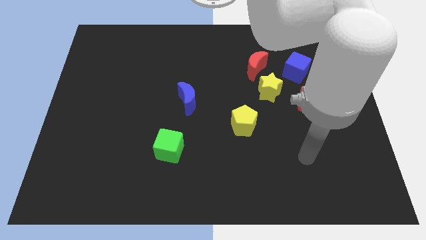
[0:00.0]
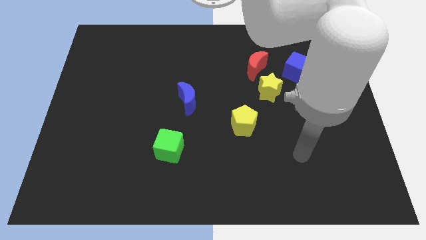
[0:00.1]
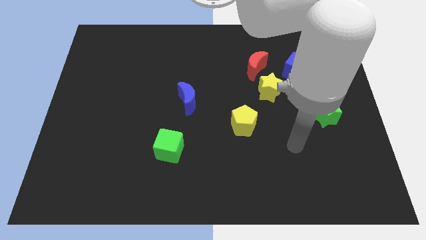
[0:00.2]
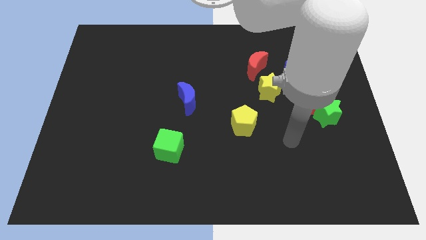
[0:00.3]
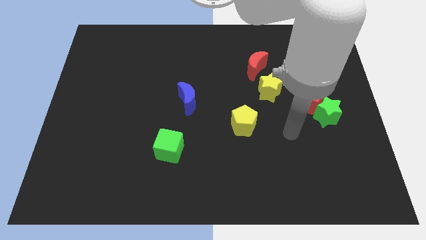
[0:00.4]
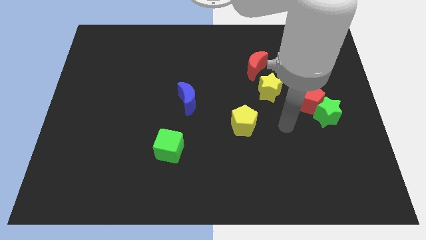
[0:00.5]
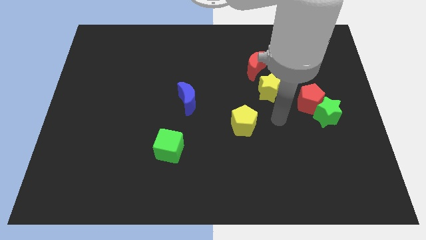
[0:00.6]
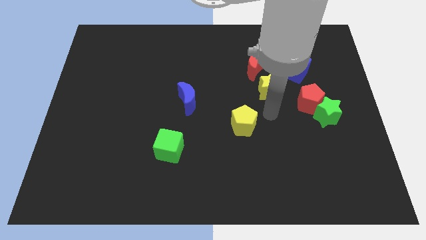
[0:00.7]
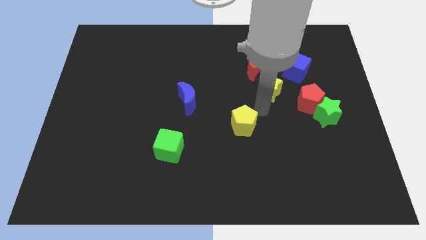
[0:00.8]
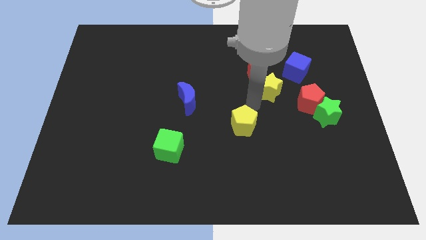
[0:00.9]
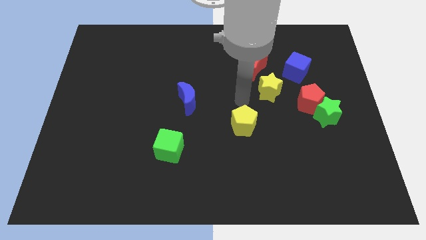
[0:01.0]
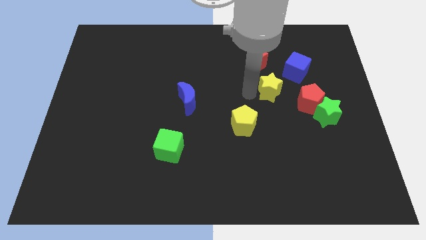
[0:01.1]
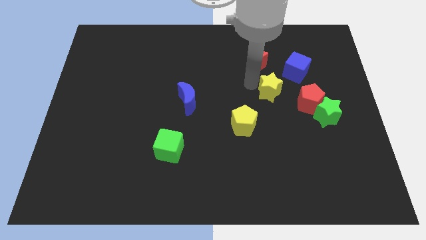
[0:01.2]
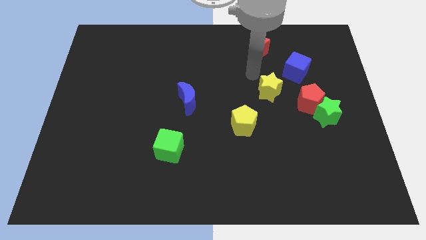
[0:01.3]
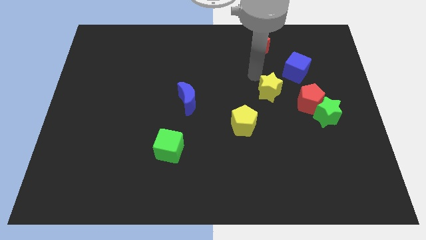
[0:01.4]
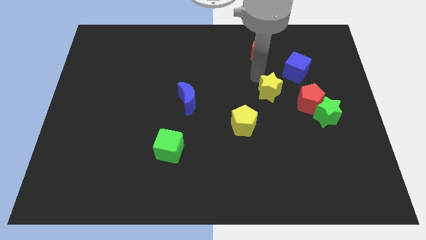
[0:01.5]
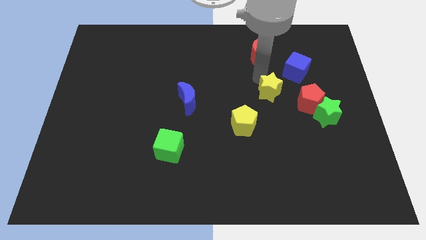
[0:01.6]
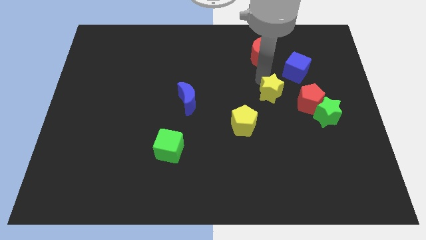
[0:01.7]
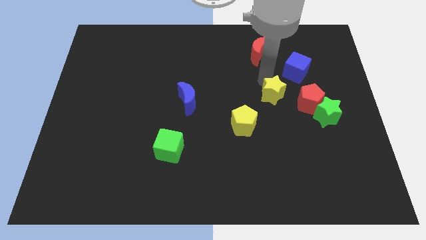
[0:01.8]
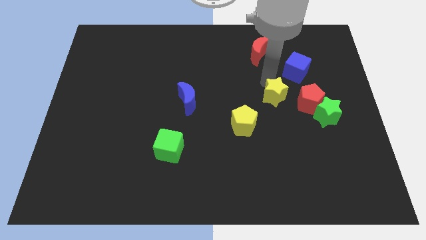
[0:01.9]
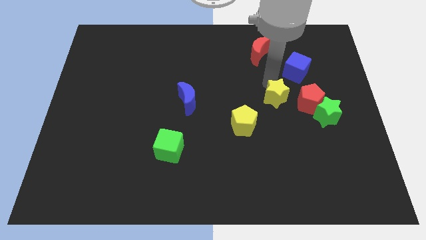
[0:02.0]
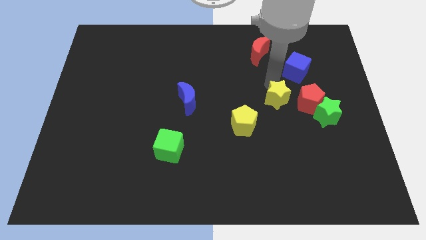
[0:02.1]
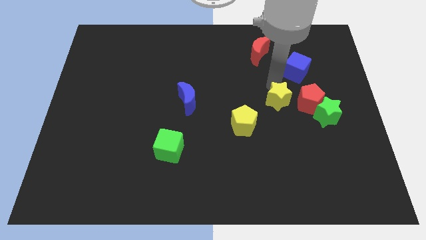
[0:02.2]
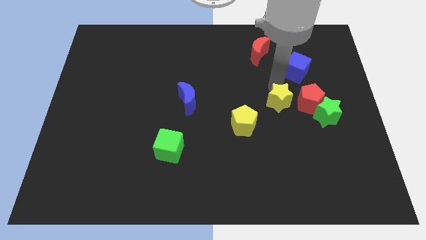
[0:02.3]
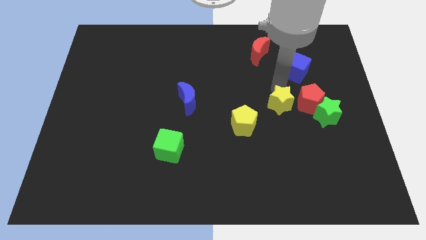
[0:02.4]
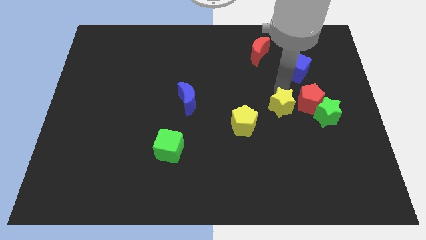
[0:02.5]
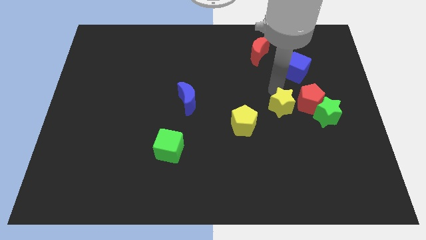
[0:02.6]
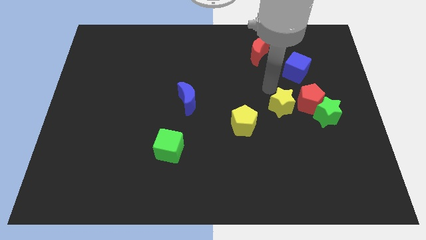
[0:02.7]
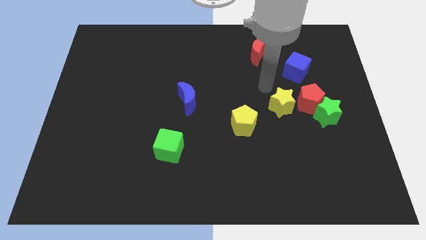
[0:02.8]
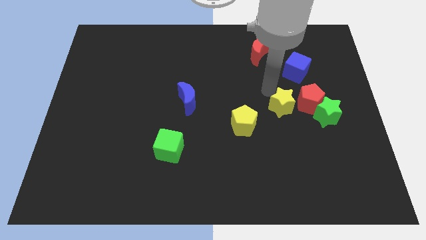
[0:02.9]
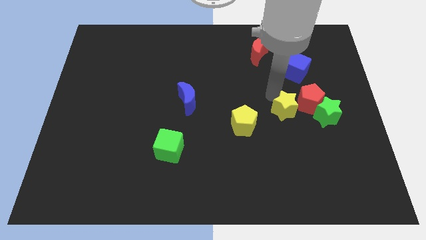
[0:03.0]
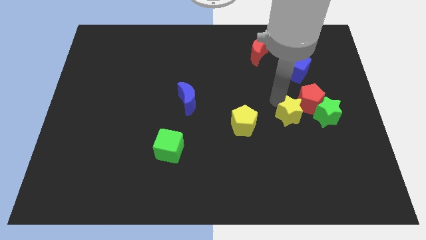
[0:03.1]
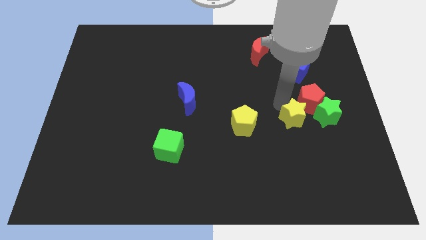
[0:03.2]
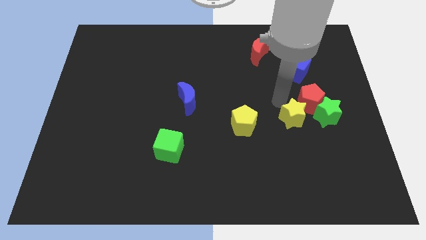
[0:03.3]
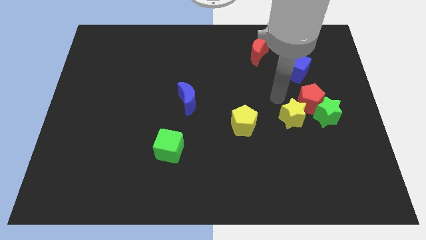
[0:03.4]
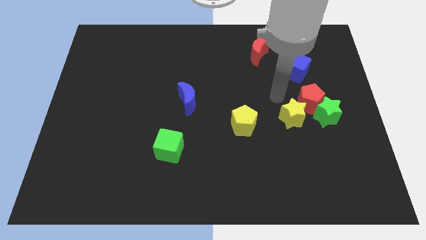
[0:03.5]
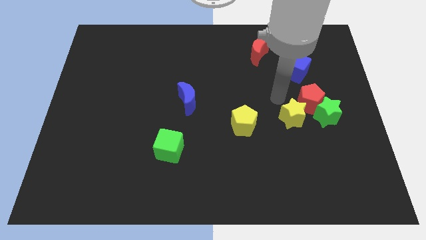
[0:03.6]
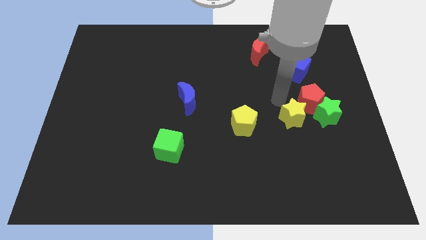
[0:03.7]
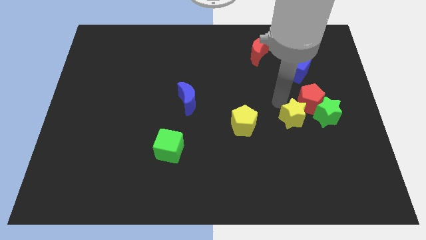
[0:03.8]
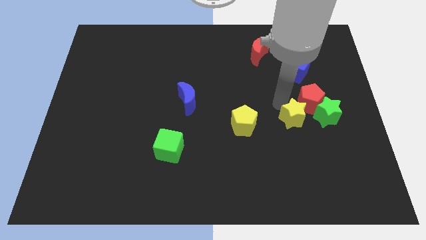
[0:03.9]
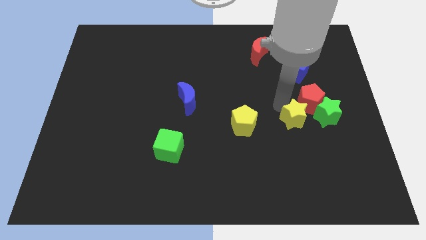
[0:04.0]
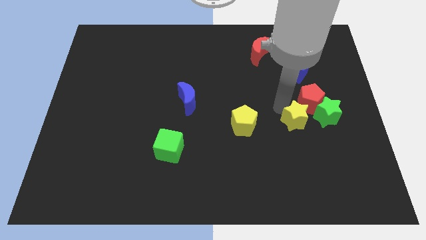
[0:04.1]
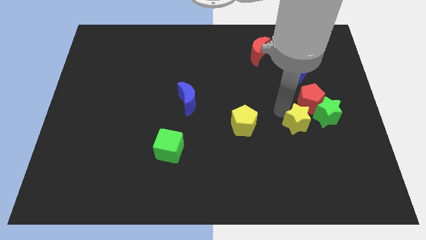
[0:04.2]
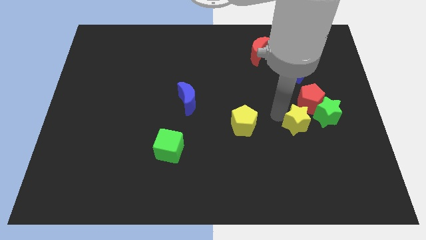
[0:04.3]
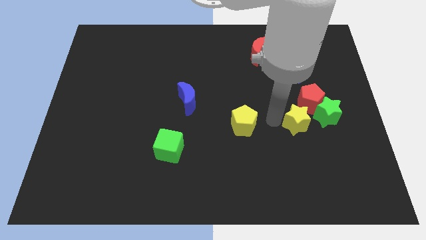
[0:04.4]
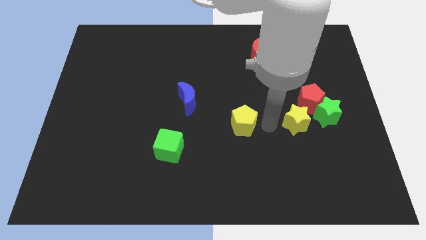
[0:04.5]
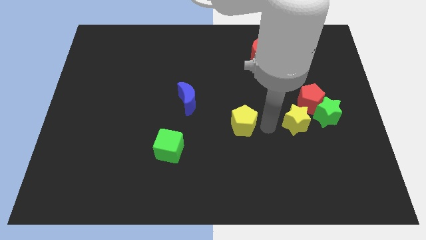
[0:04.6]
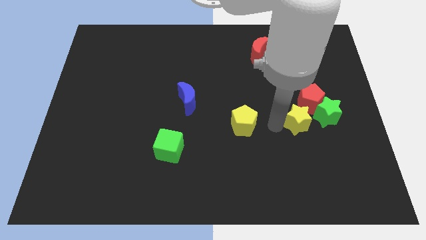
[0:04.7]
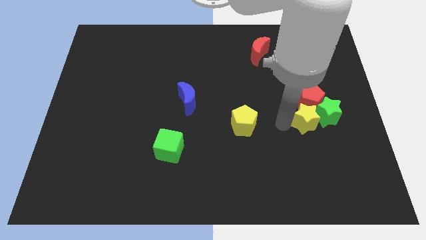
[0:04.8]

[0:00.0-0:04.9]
move the yellow star close to the green star

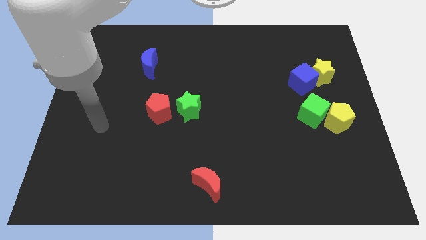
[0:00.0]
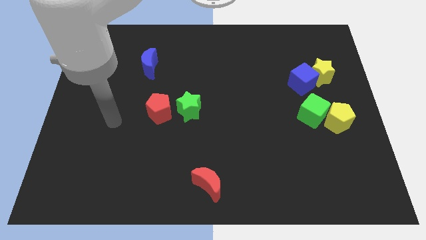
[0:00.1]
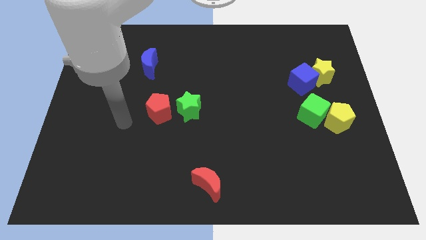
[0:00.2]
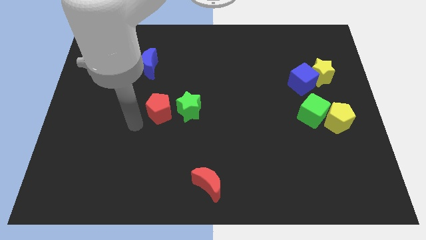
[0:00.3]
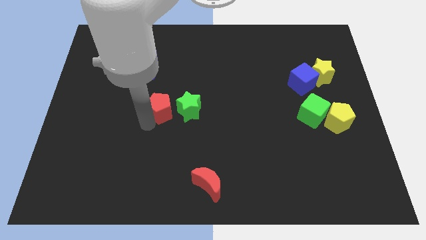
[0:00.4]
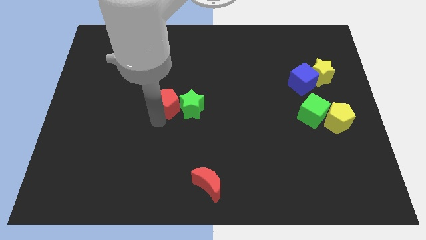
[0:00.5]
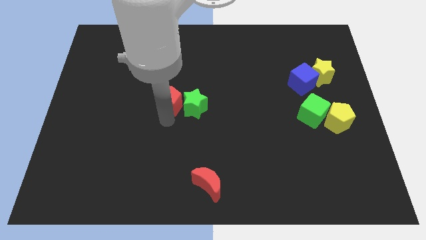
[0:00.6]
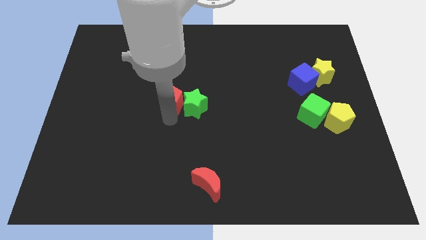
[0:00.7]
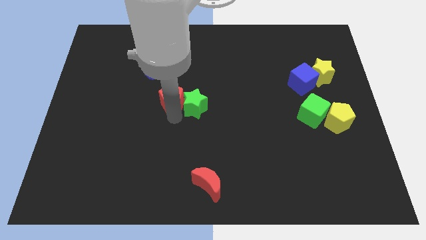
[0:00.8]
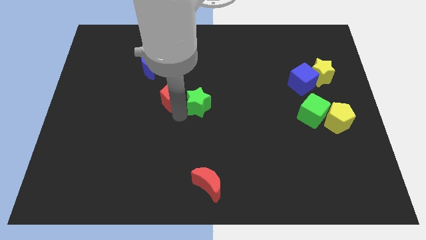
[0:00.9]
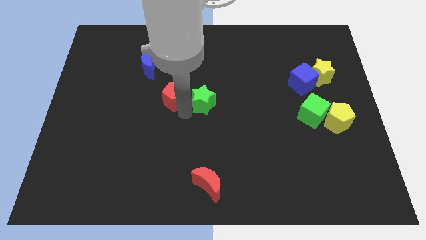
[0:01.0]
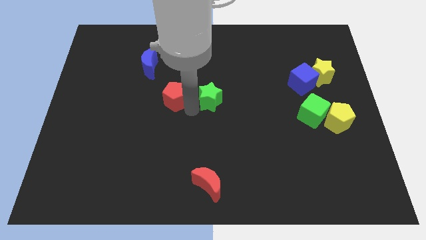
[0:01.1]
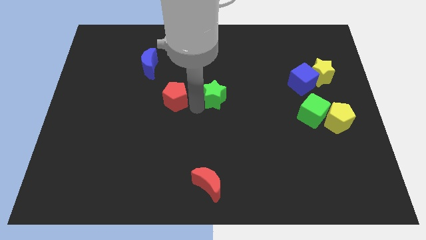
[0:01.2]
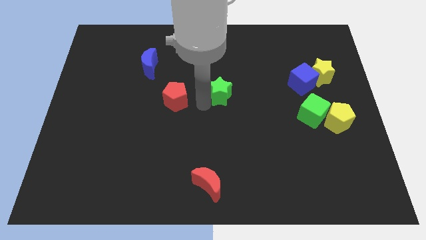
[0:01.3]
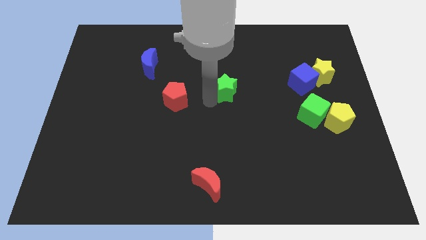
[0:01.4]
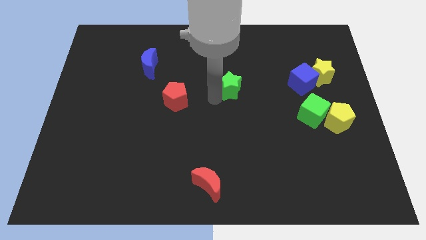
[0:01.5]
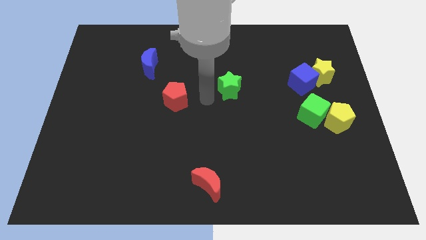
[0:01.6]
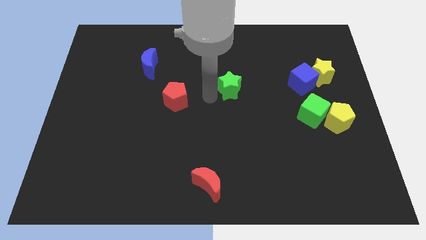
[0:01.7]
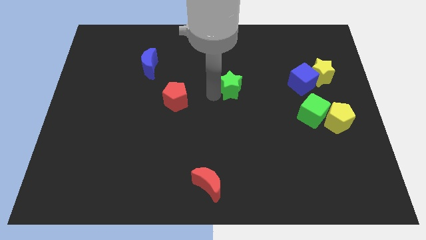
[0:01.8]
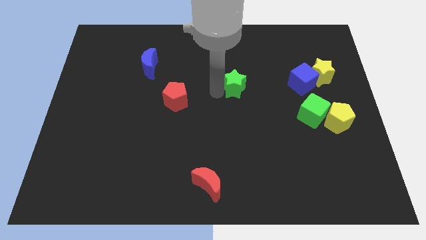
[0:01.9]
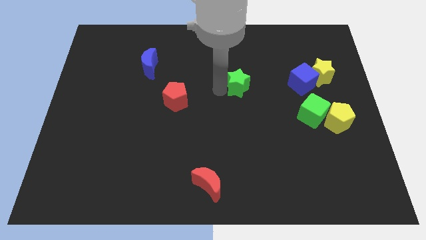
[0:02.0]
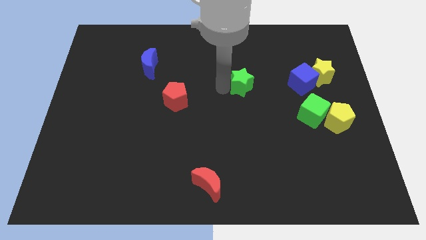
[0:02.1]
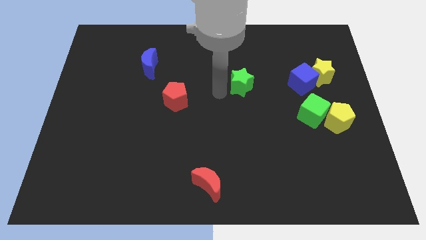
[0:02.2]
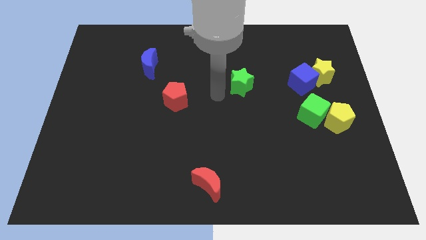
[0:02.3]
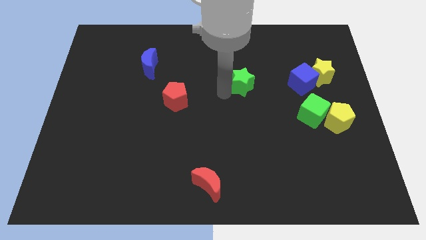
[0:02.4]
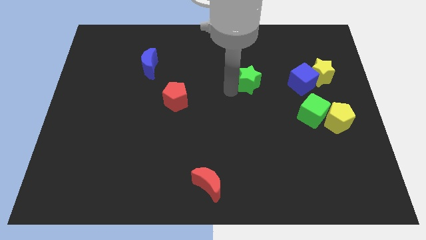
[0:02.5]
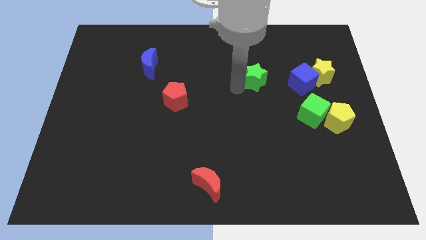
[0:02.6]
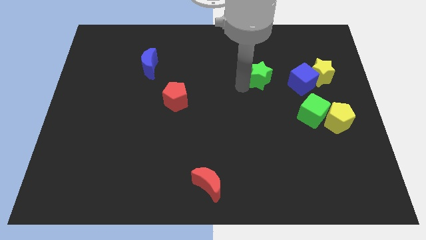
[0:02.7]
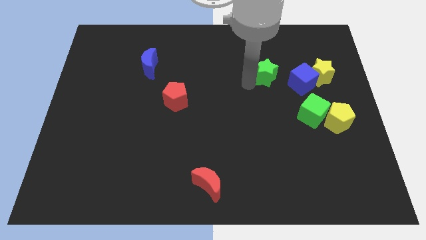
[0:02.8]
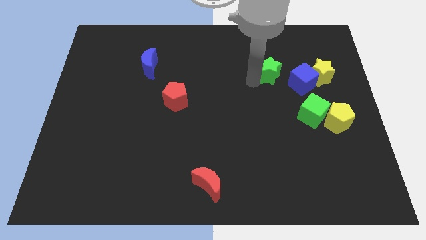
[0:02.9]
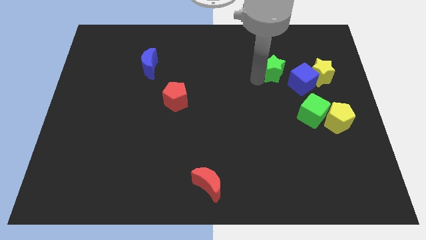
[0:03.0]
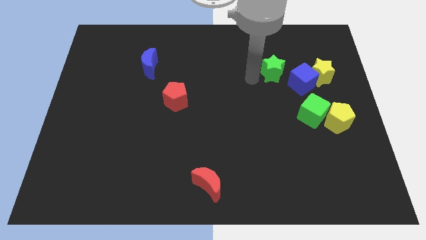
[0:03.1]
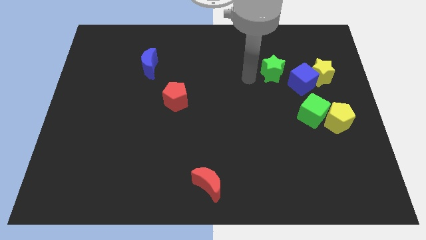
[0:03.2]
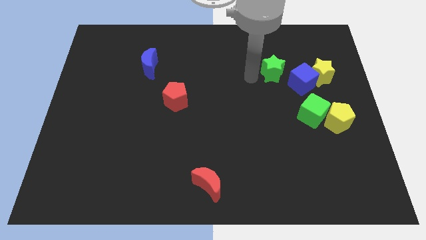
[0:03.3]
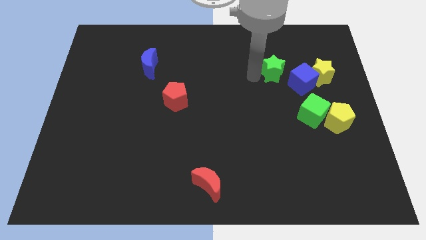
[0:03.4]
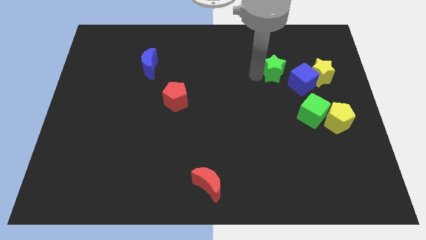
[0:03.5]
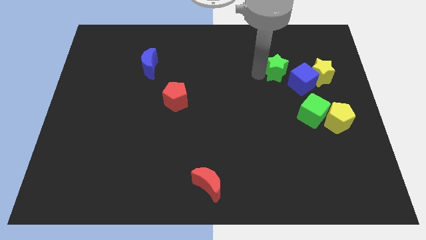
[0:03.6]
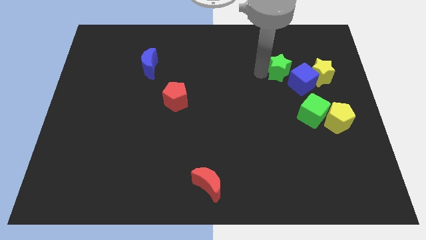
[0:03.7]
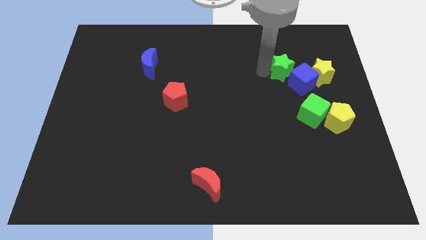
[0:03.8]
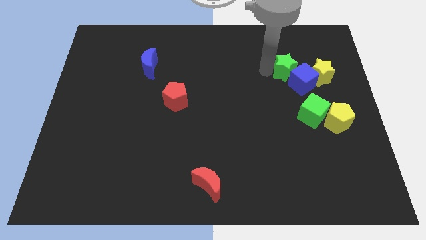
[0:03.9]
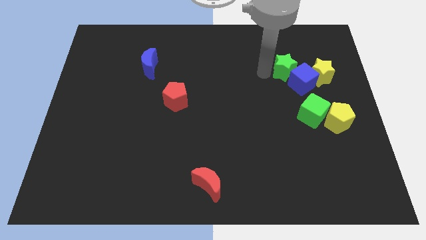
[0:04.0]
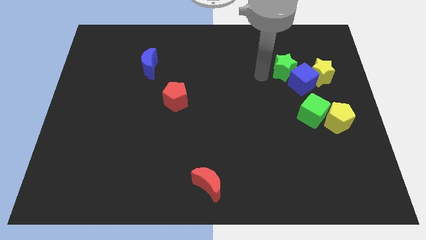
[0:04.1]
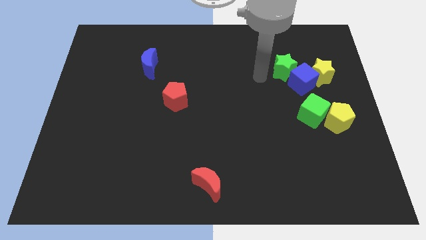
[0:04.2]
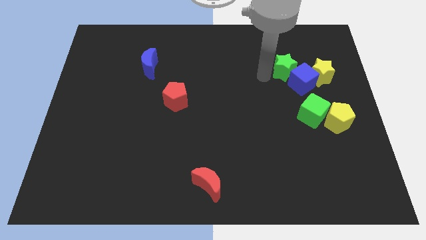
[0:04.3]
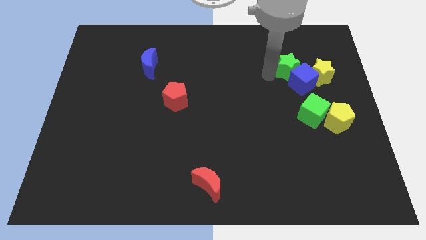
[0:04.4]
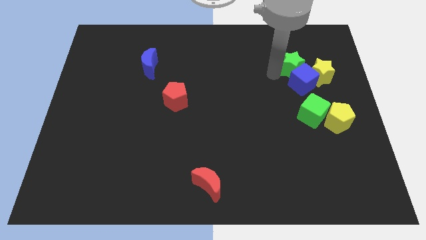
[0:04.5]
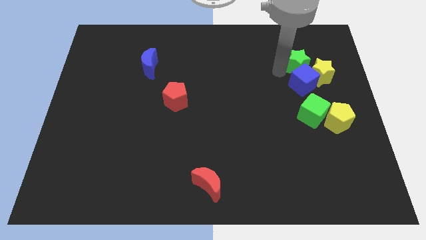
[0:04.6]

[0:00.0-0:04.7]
put the green star to the yellow star
